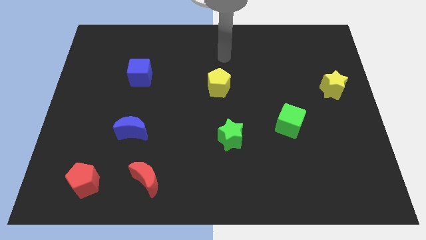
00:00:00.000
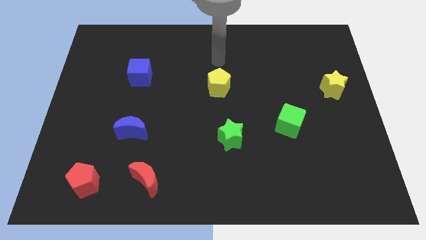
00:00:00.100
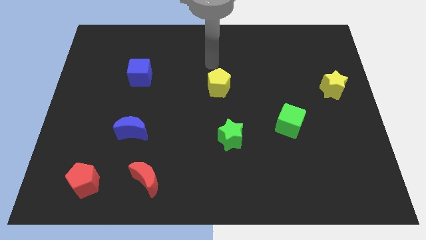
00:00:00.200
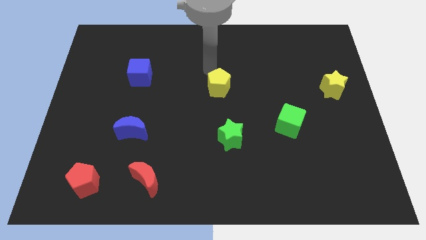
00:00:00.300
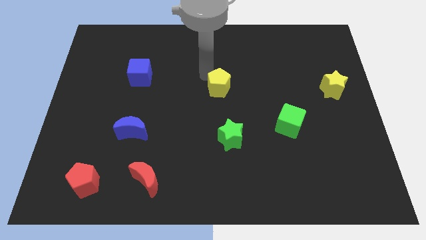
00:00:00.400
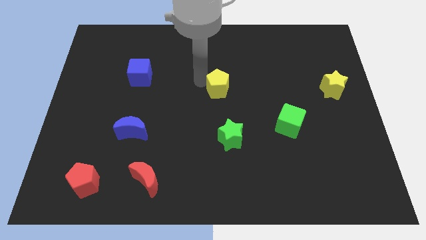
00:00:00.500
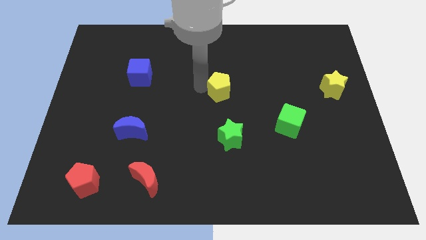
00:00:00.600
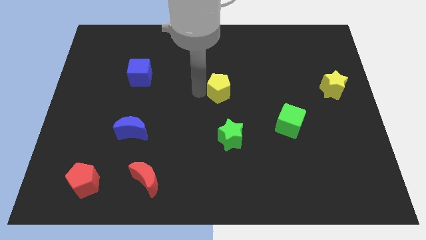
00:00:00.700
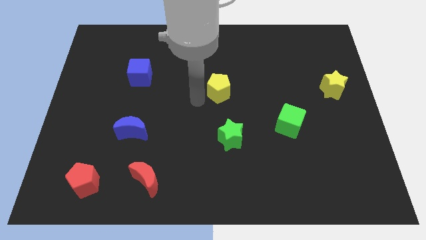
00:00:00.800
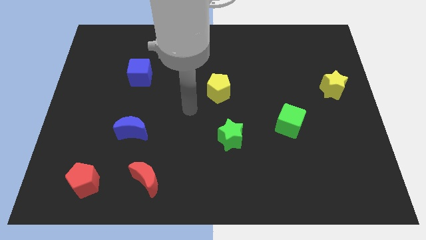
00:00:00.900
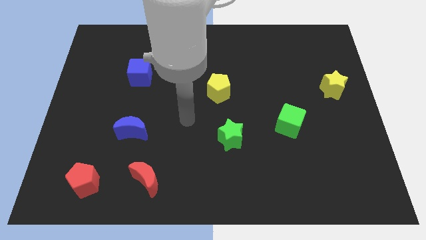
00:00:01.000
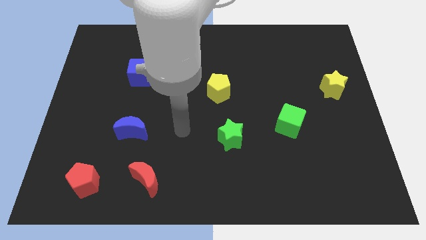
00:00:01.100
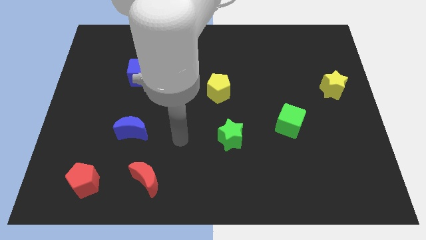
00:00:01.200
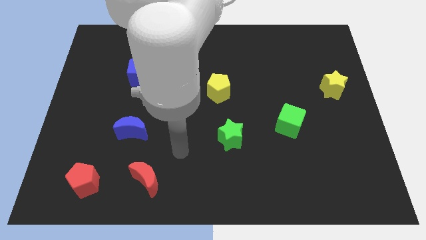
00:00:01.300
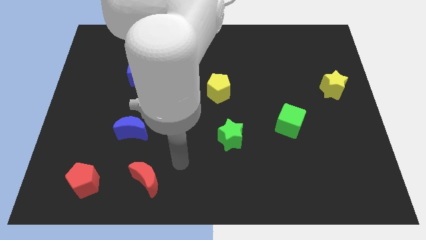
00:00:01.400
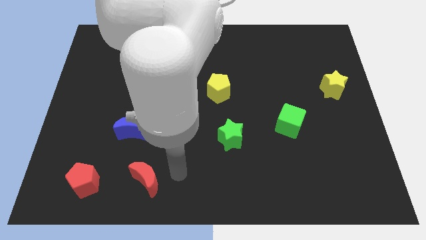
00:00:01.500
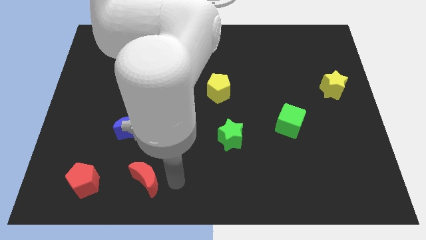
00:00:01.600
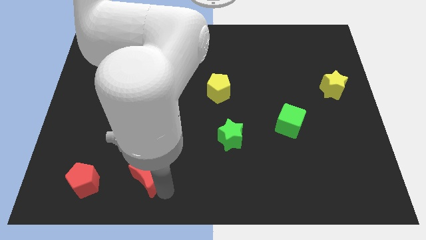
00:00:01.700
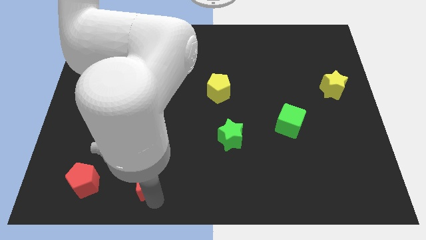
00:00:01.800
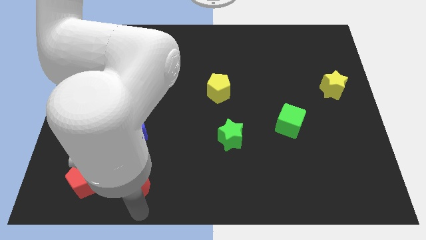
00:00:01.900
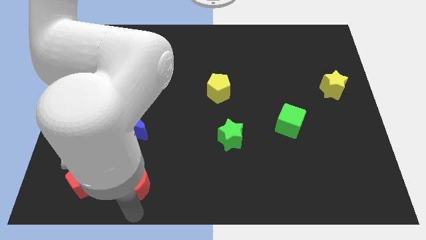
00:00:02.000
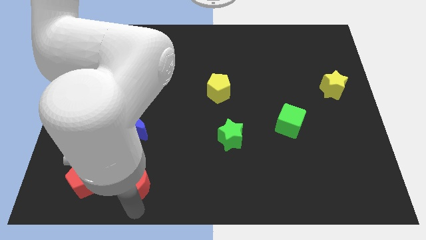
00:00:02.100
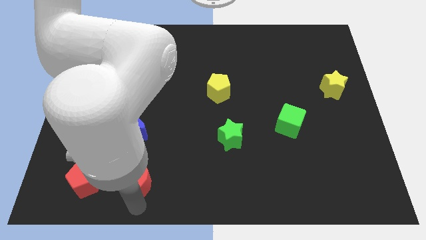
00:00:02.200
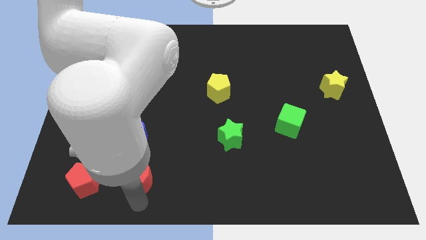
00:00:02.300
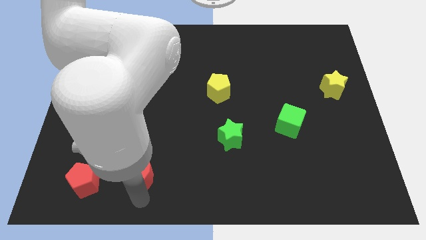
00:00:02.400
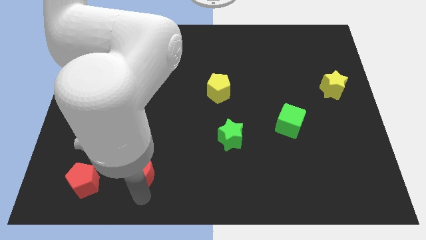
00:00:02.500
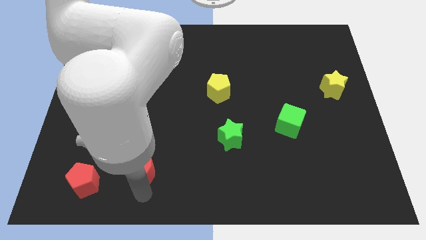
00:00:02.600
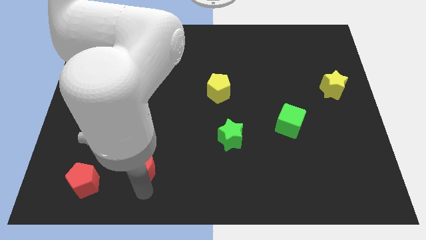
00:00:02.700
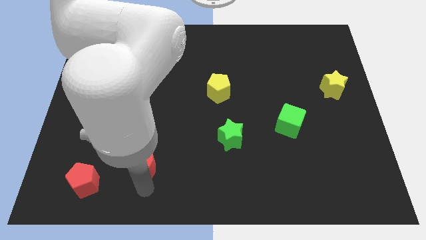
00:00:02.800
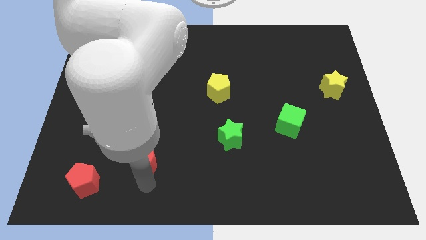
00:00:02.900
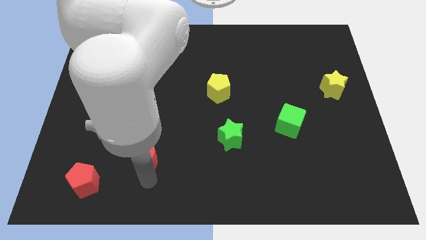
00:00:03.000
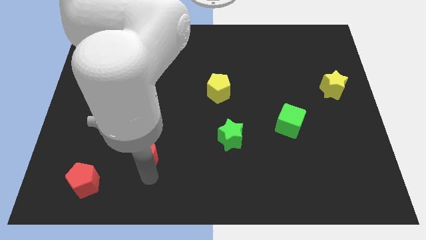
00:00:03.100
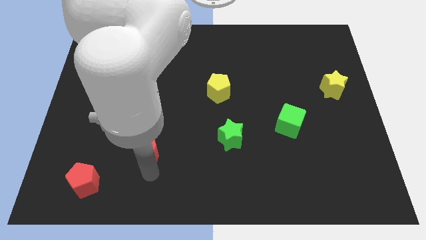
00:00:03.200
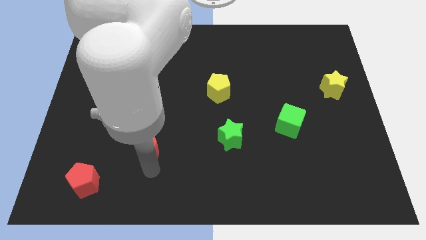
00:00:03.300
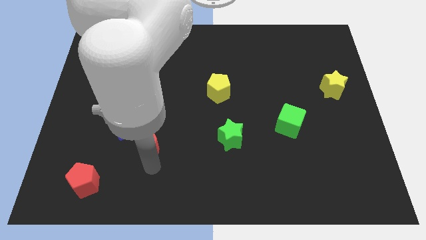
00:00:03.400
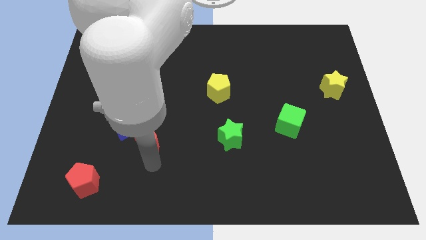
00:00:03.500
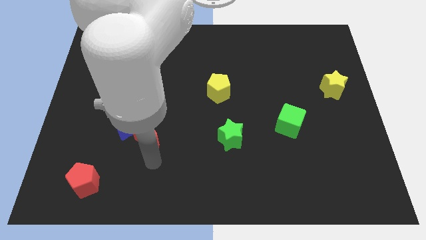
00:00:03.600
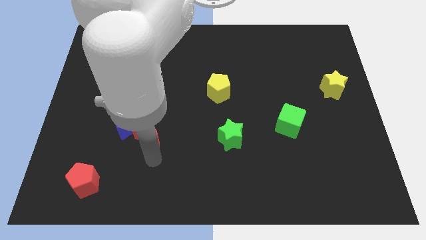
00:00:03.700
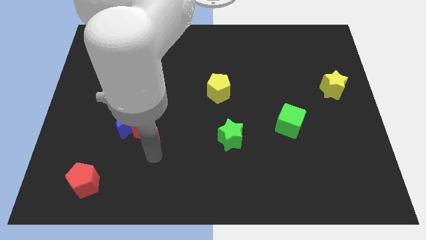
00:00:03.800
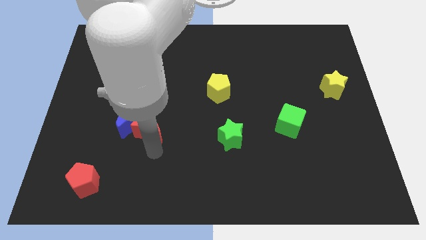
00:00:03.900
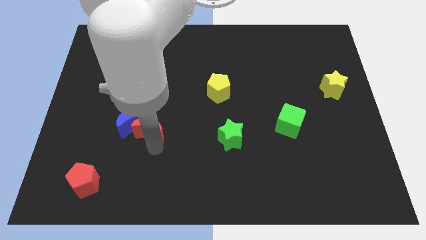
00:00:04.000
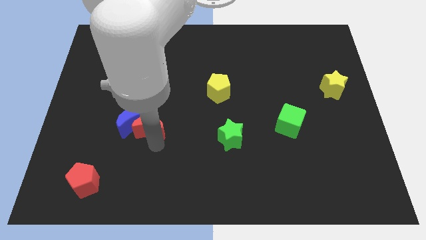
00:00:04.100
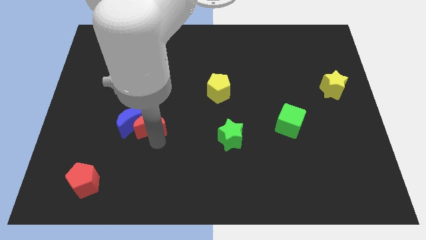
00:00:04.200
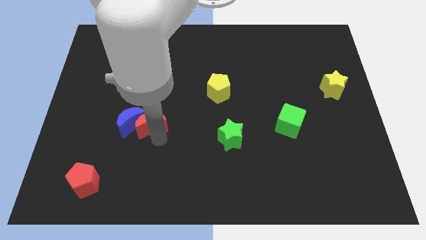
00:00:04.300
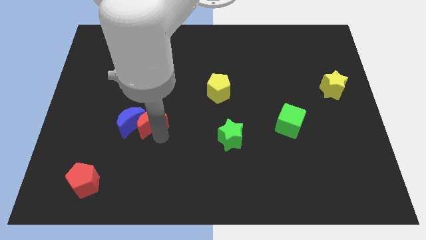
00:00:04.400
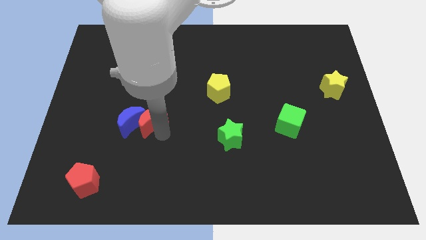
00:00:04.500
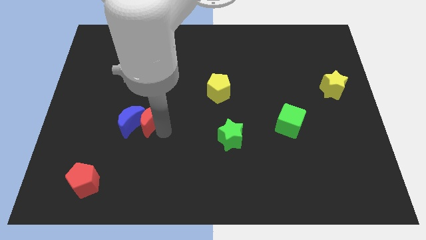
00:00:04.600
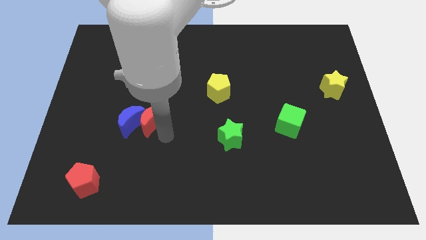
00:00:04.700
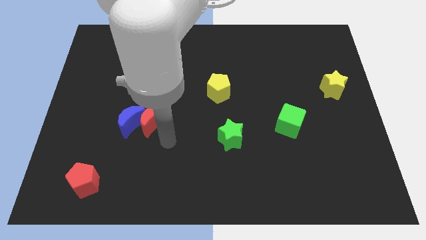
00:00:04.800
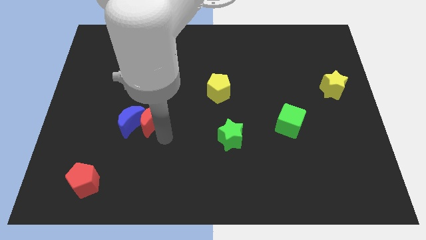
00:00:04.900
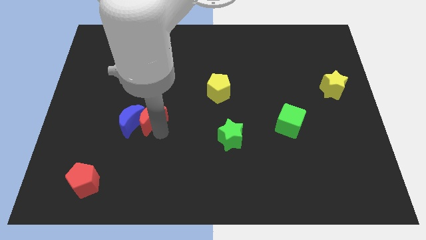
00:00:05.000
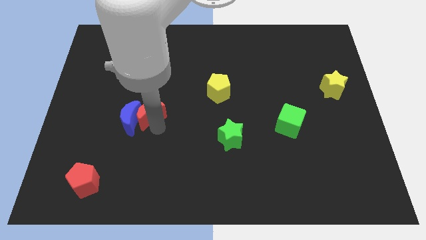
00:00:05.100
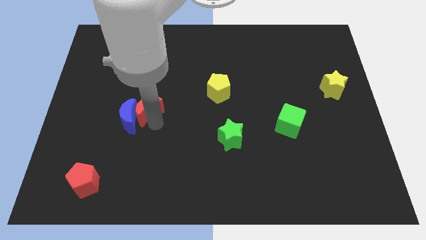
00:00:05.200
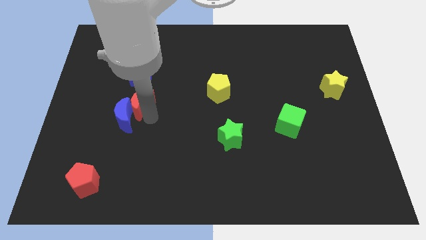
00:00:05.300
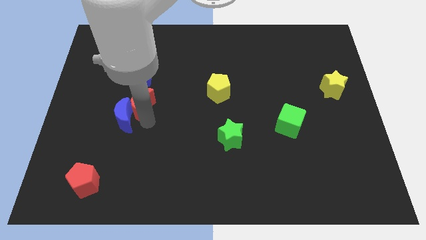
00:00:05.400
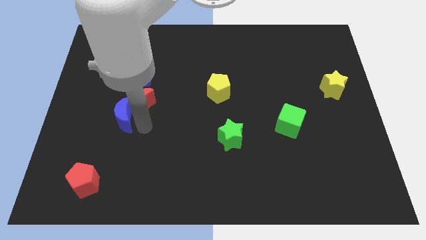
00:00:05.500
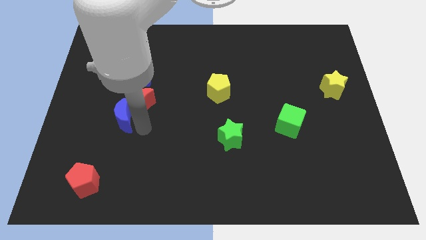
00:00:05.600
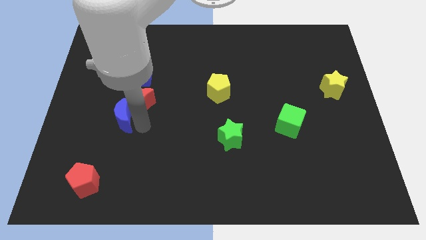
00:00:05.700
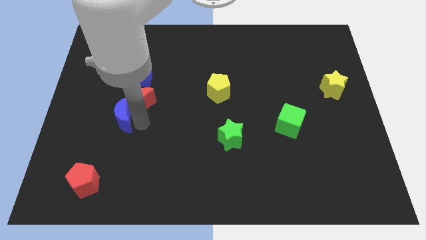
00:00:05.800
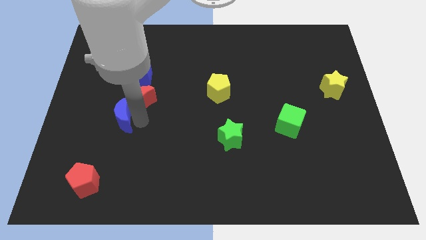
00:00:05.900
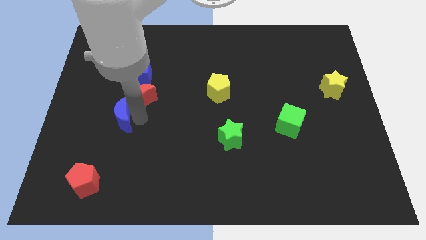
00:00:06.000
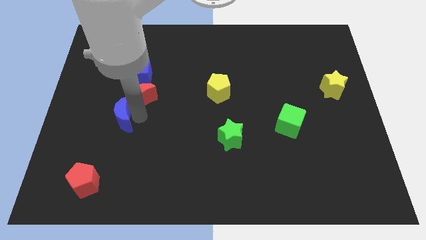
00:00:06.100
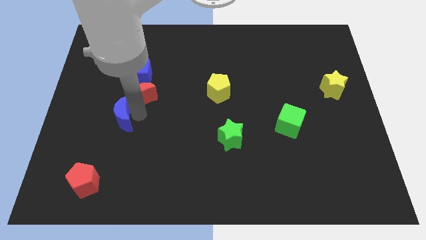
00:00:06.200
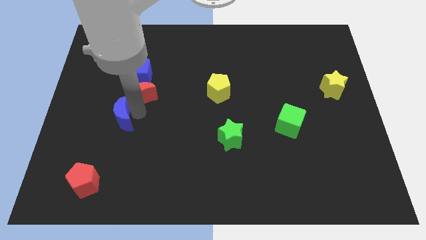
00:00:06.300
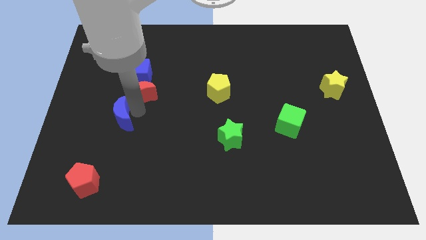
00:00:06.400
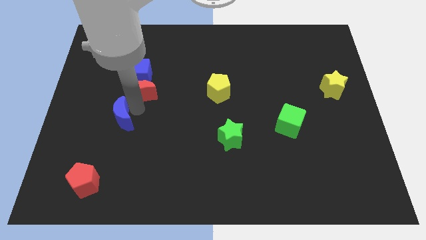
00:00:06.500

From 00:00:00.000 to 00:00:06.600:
put the red moon close to the blue cube

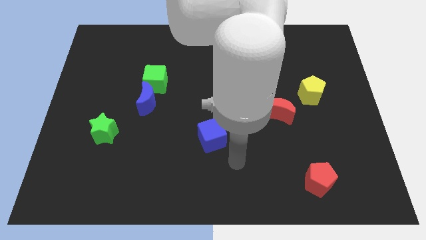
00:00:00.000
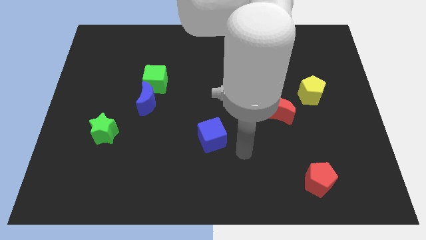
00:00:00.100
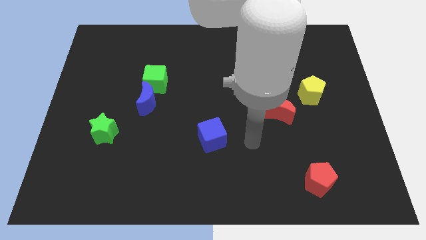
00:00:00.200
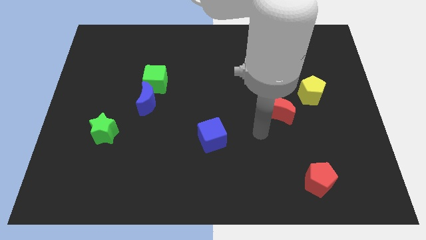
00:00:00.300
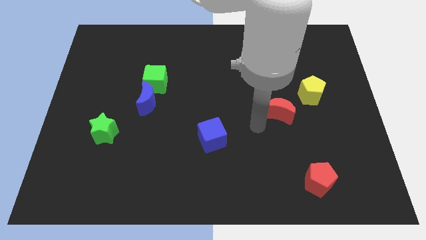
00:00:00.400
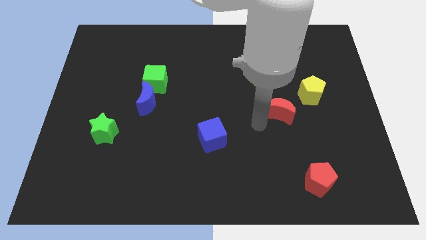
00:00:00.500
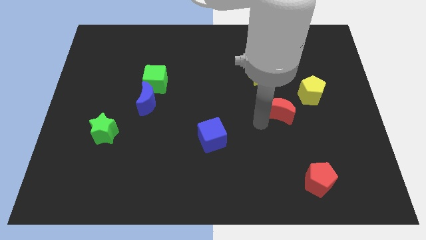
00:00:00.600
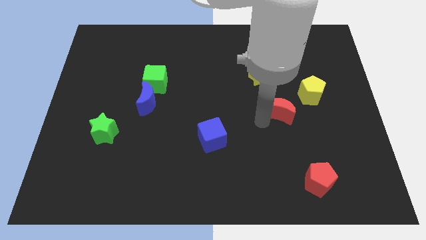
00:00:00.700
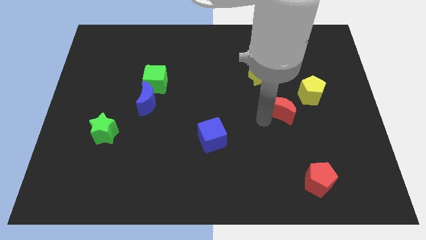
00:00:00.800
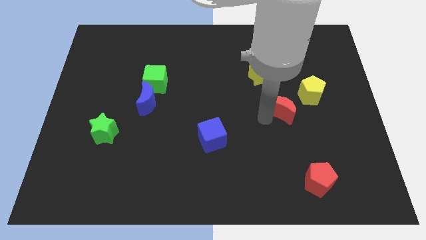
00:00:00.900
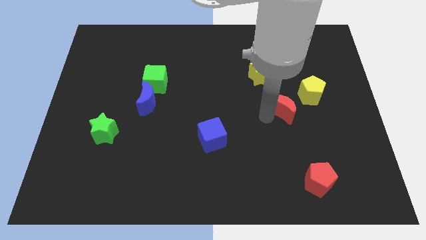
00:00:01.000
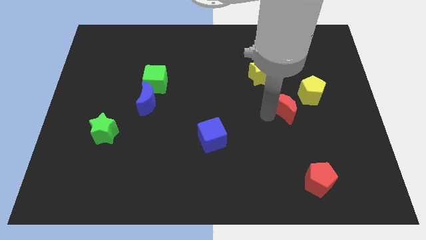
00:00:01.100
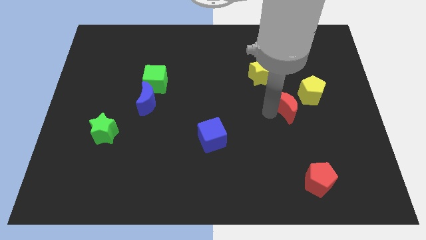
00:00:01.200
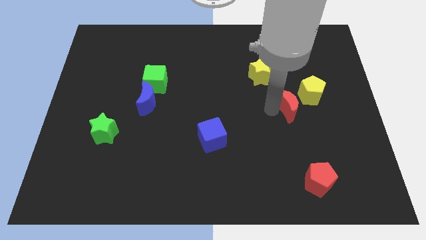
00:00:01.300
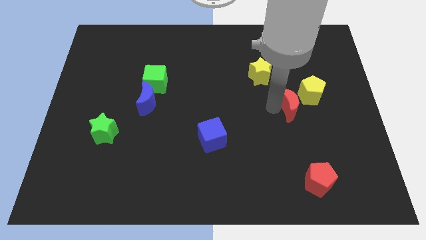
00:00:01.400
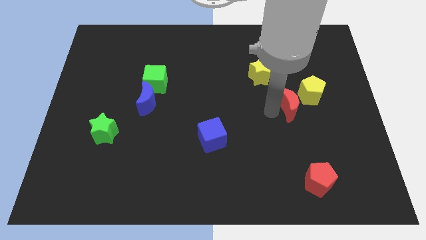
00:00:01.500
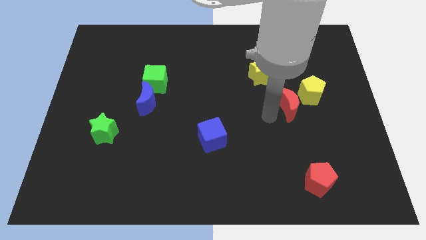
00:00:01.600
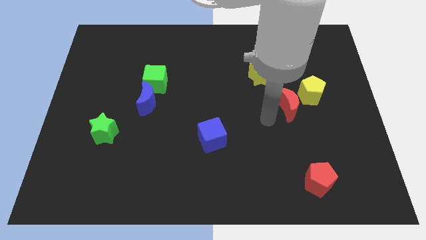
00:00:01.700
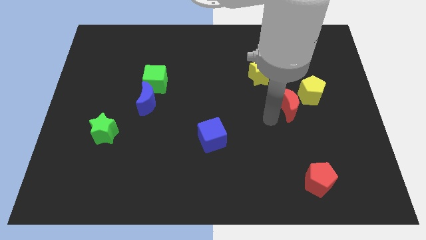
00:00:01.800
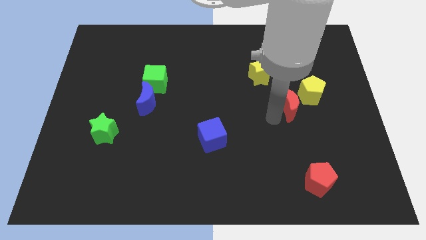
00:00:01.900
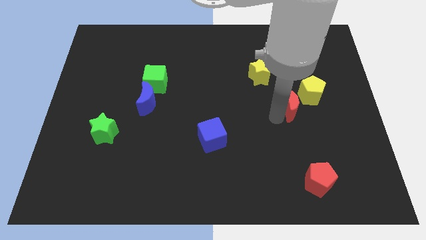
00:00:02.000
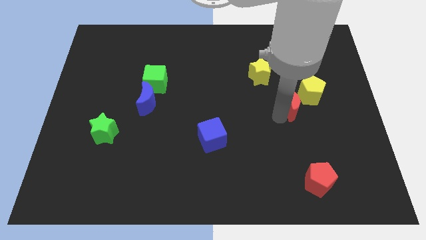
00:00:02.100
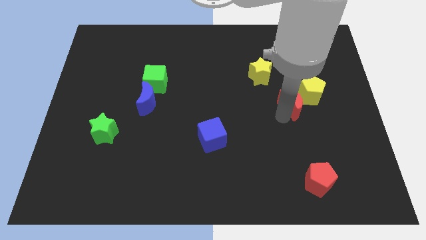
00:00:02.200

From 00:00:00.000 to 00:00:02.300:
move the red moon to the yellow pentagon
